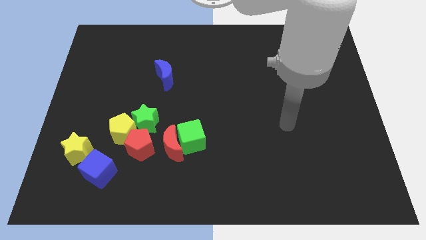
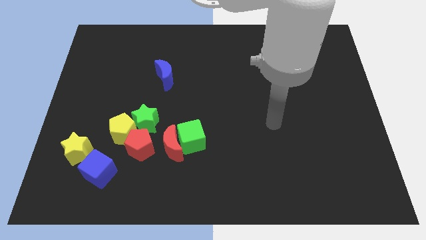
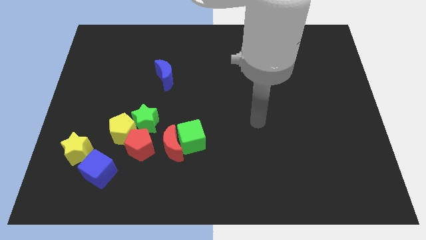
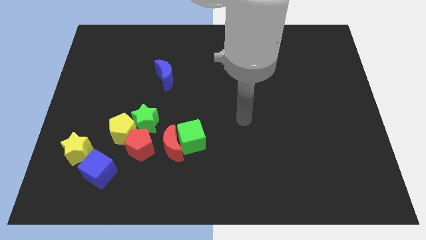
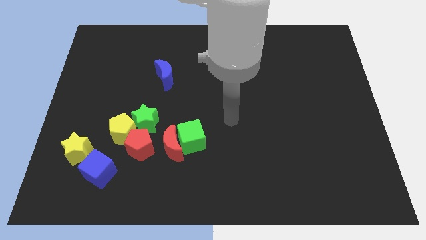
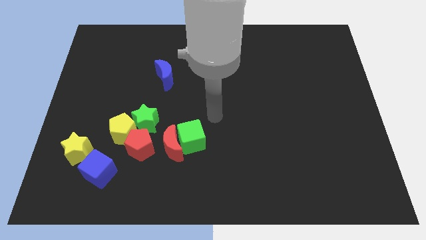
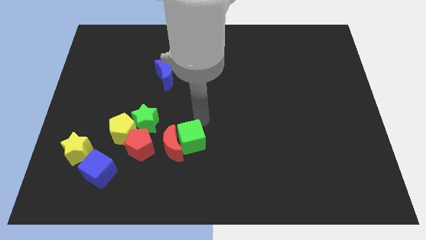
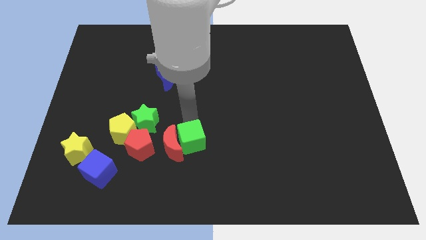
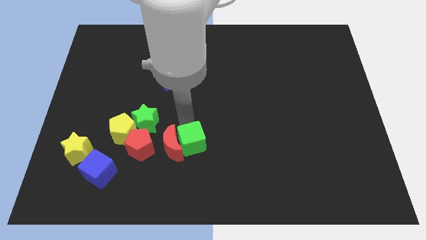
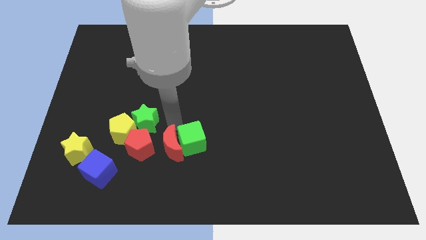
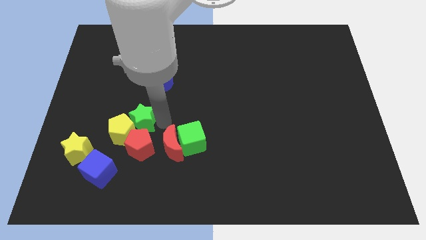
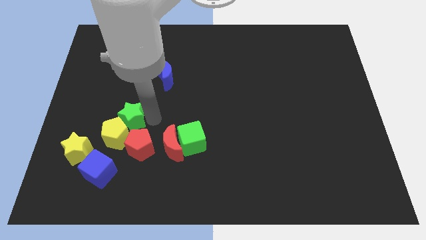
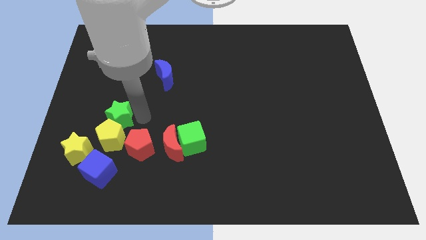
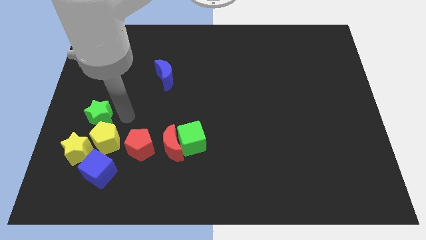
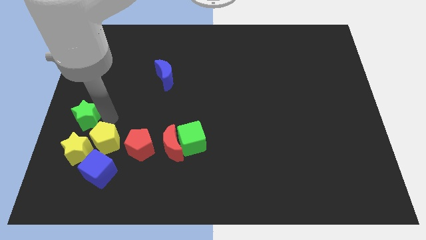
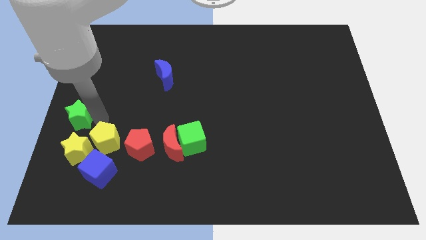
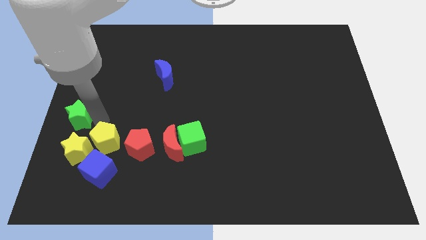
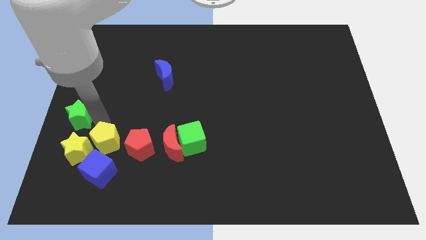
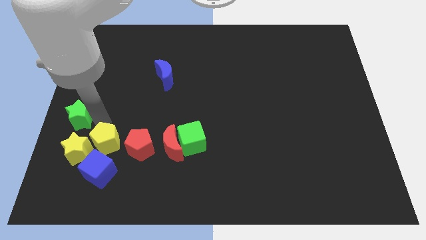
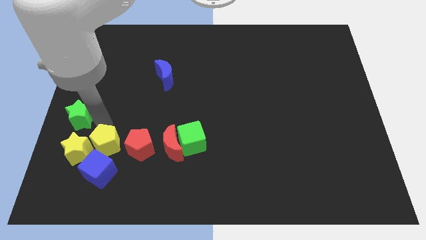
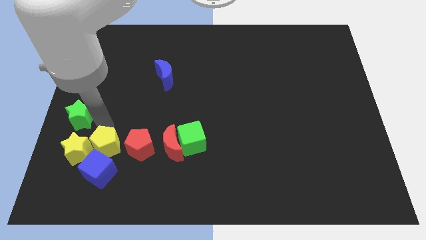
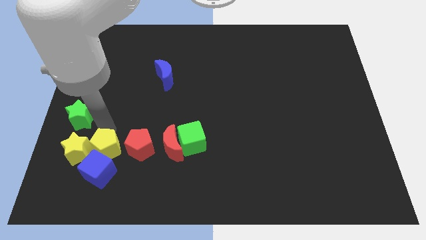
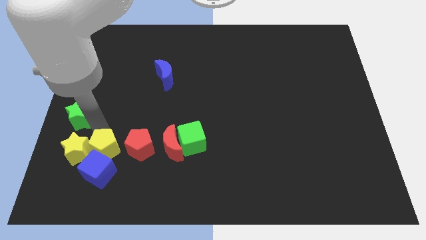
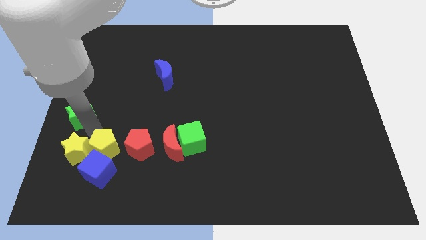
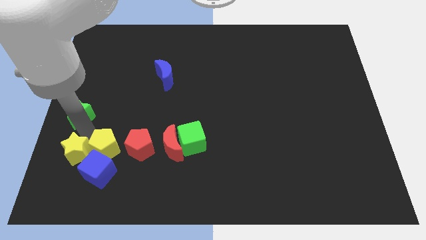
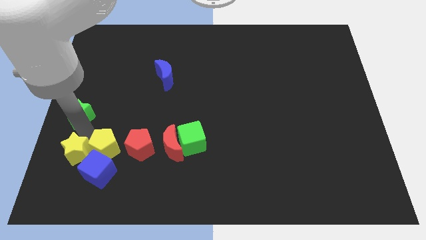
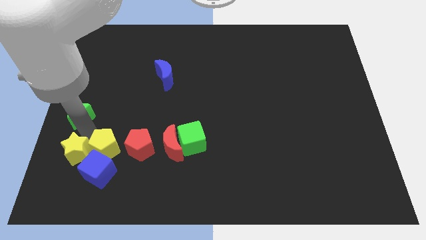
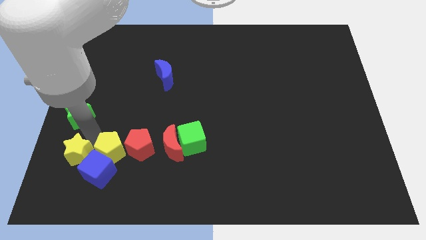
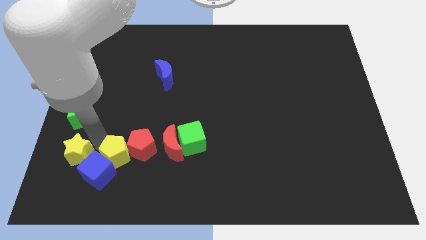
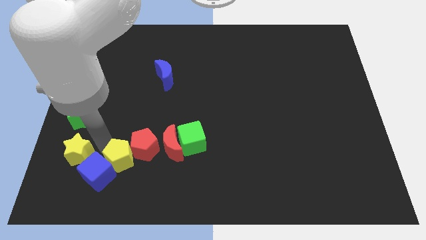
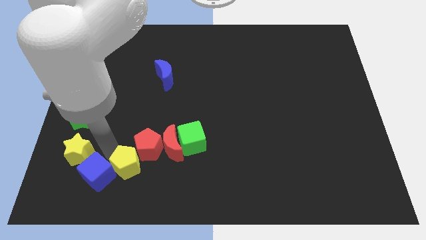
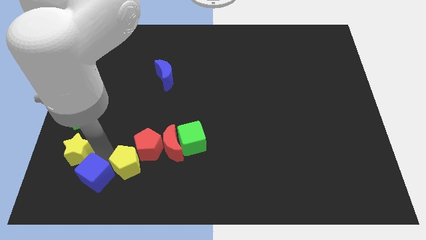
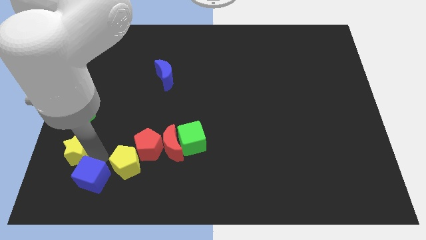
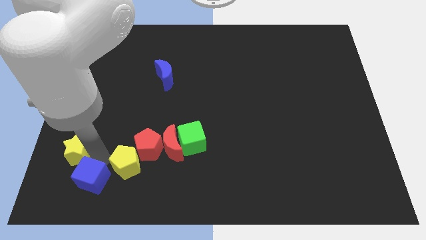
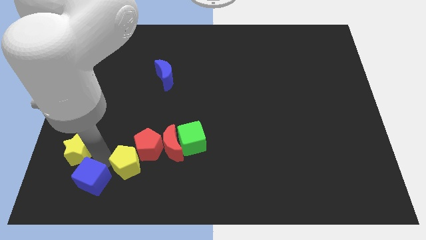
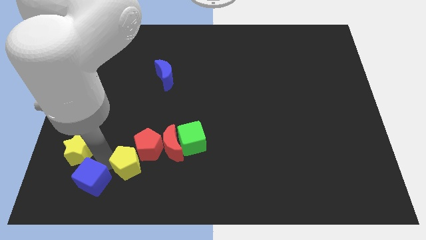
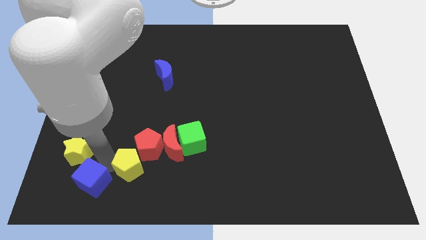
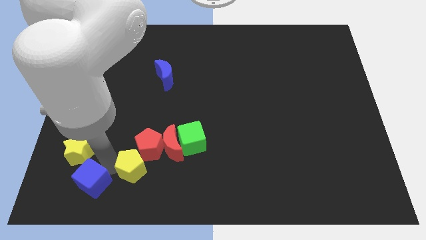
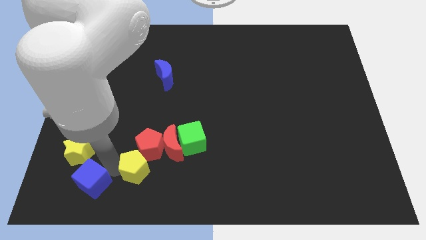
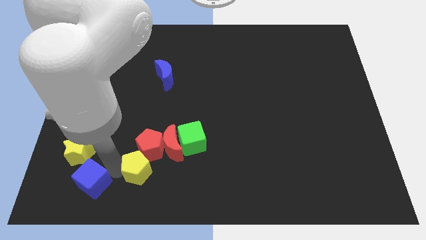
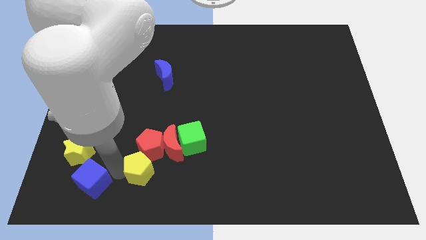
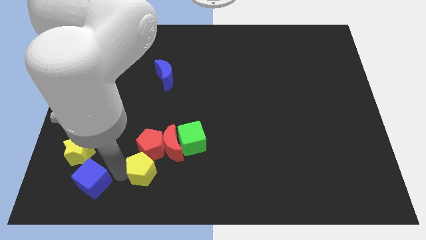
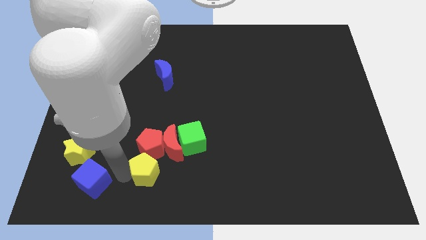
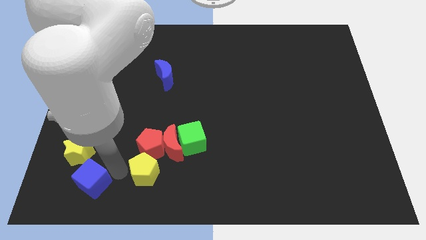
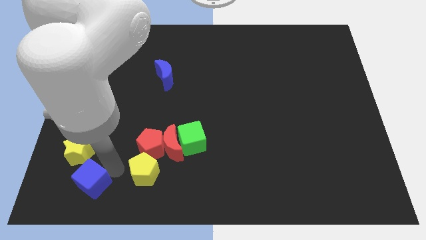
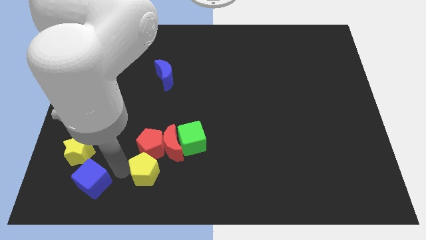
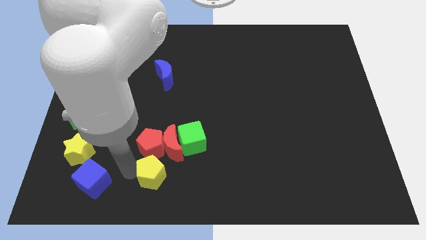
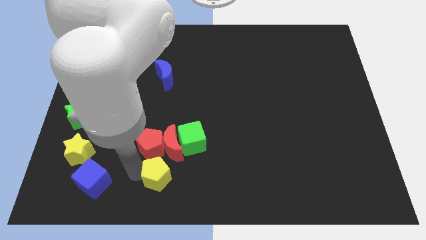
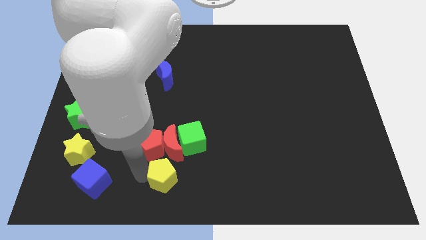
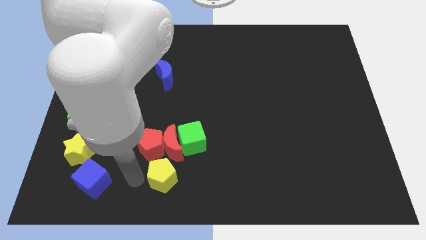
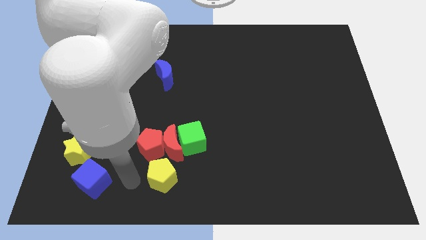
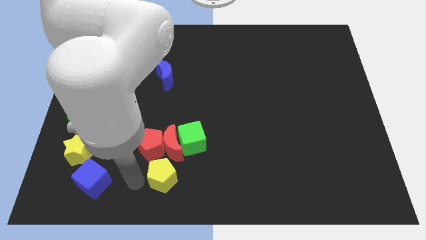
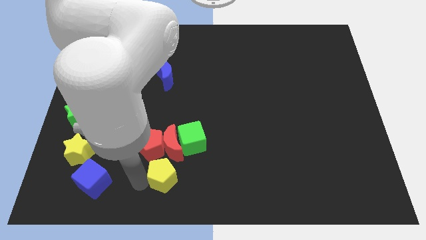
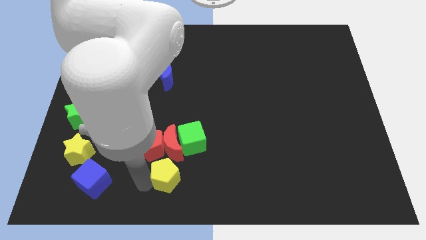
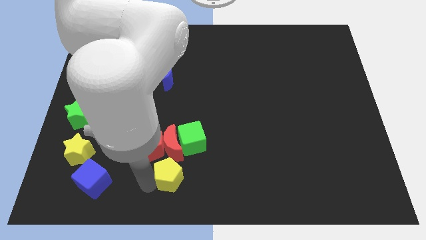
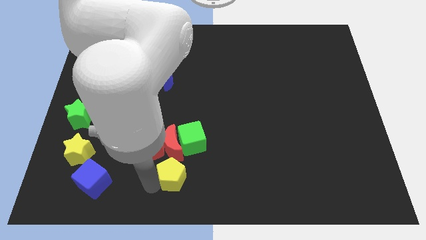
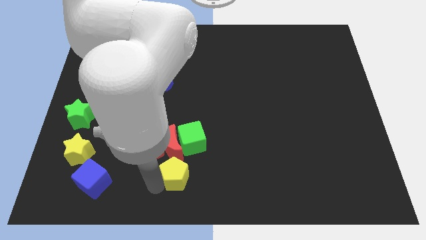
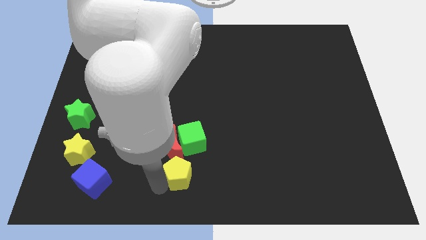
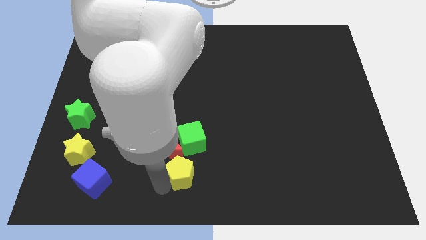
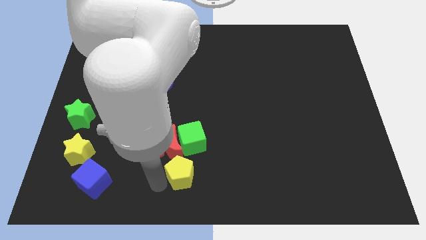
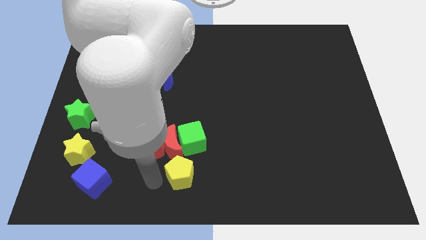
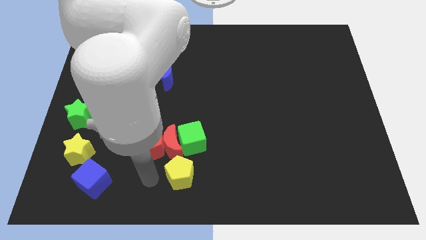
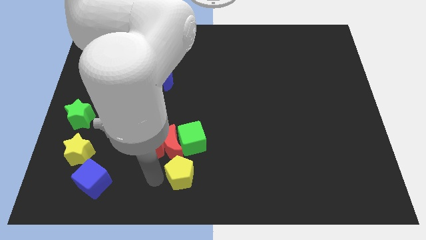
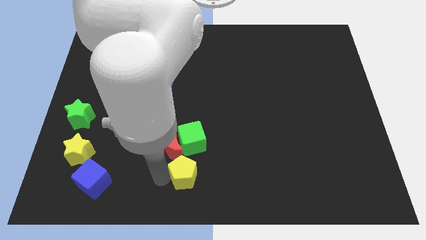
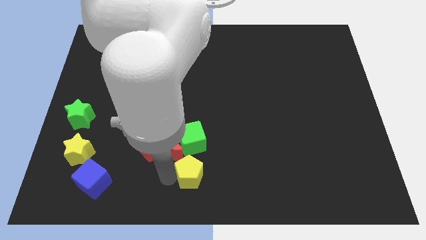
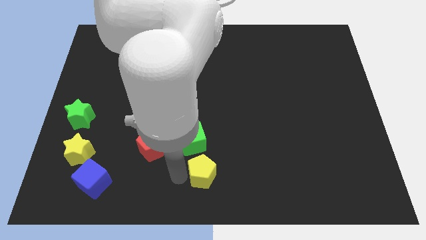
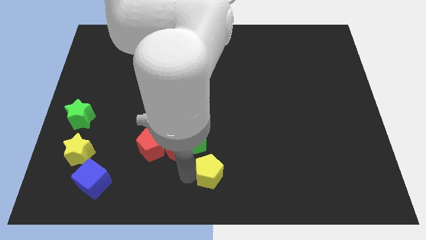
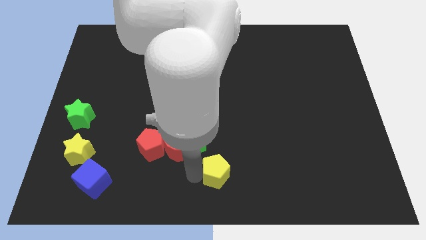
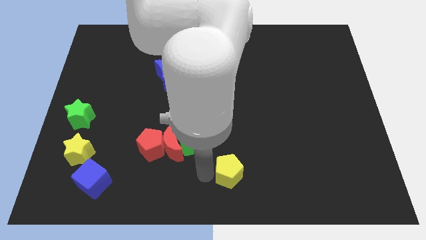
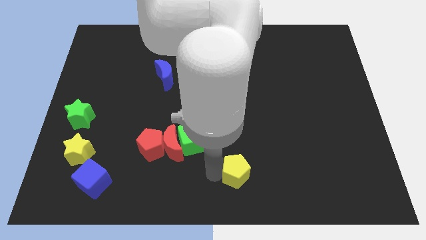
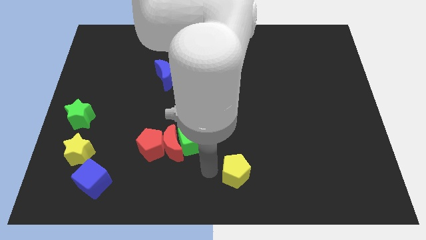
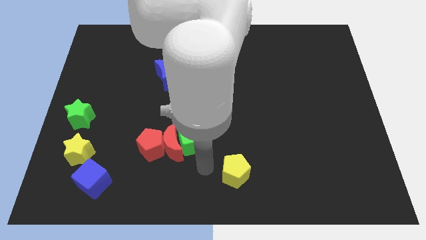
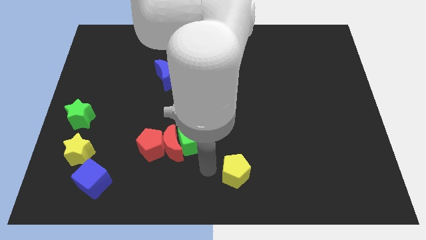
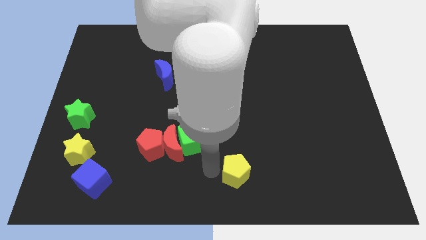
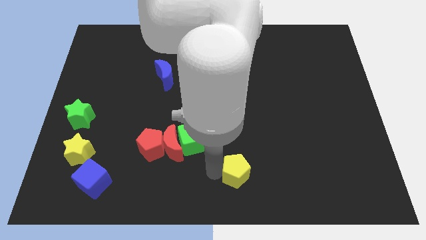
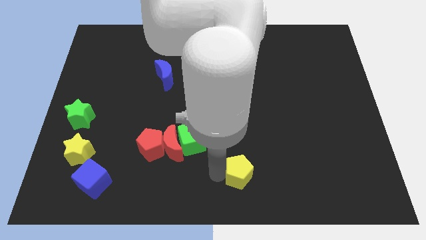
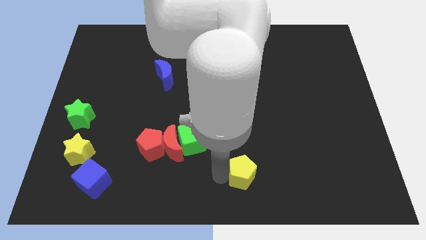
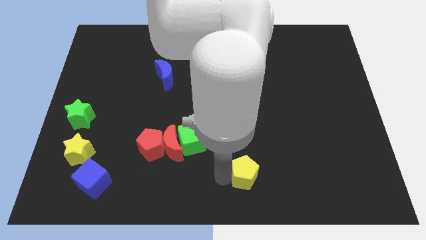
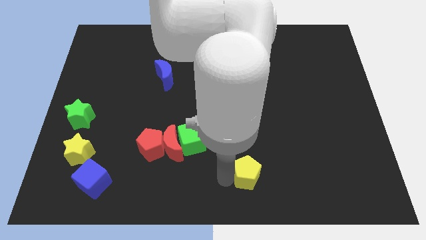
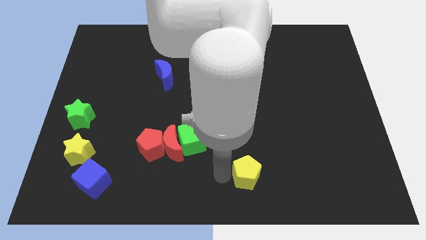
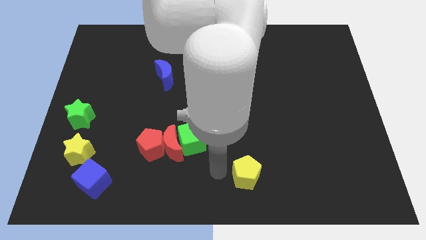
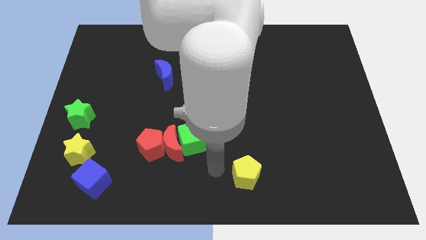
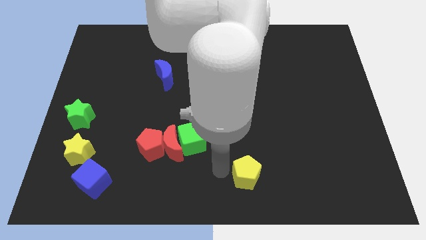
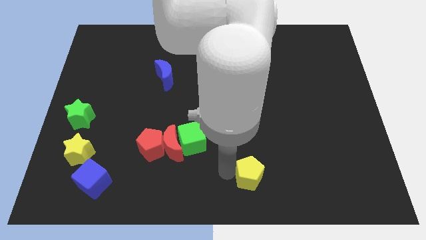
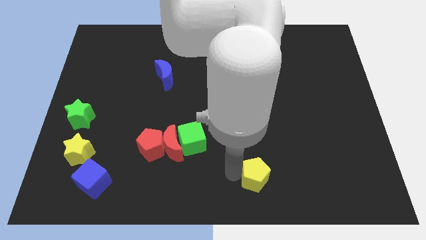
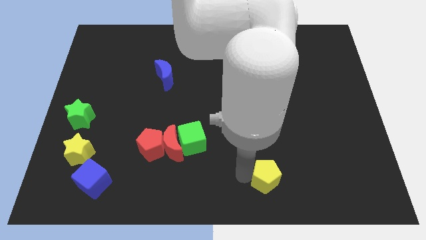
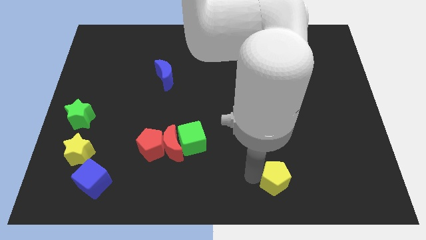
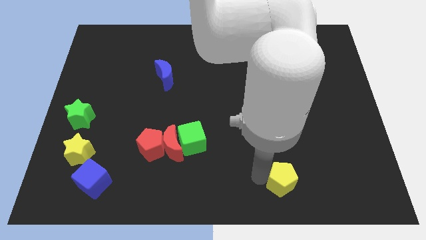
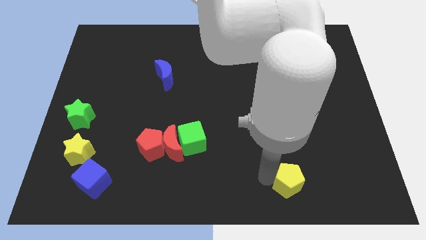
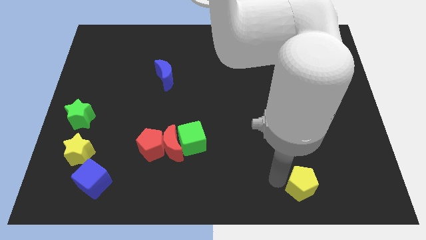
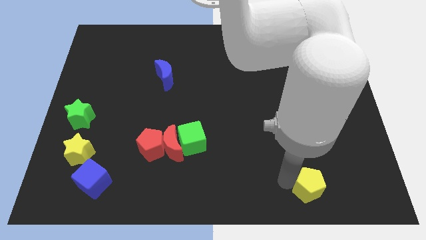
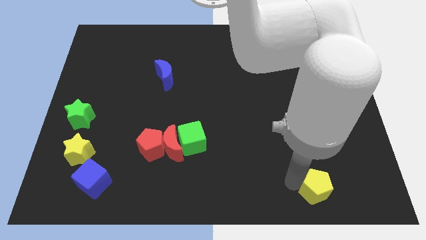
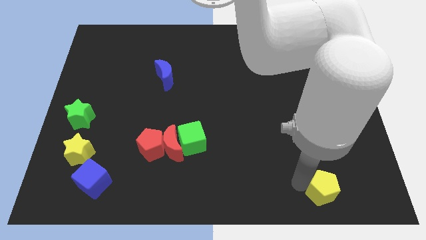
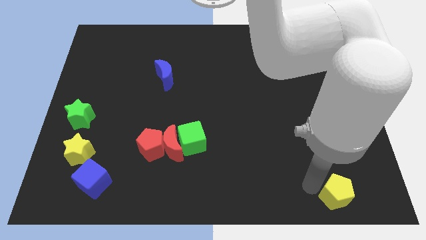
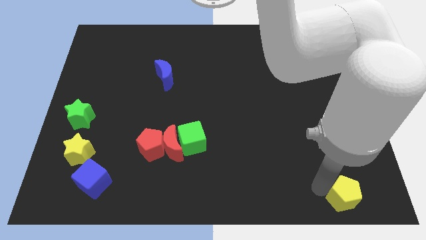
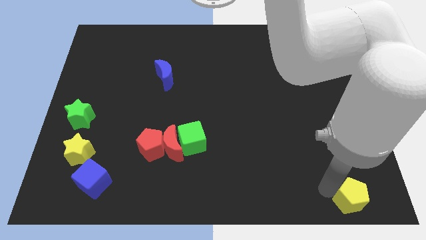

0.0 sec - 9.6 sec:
put the yellow pentagon to the bottom right corner
